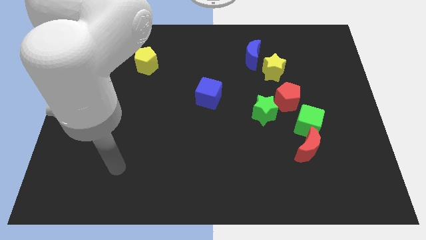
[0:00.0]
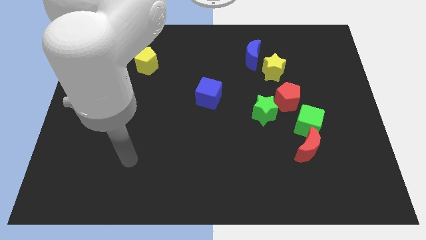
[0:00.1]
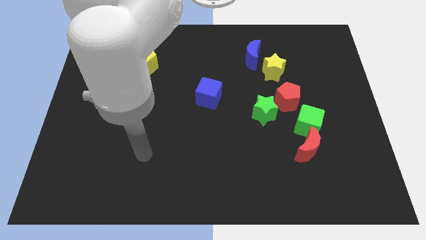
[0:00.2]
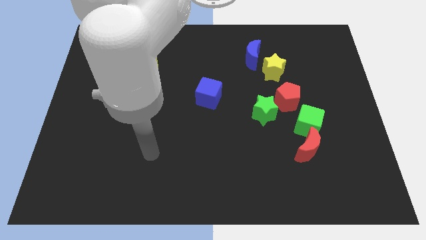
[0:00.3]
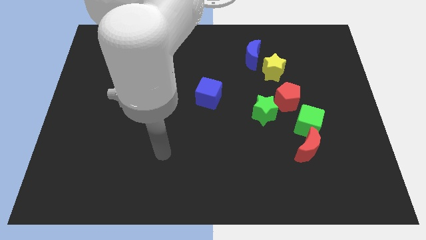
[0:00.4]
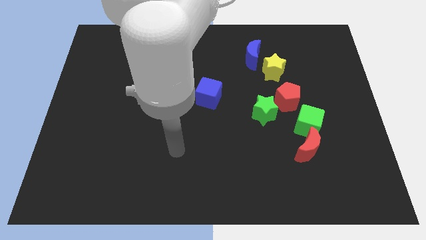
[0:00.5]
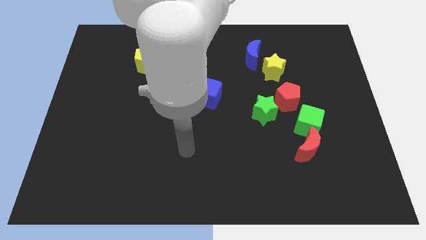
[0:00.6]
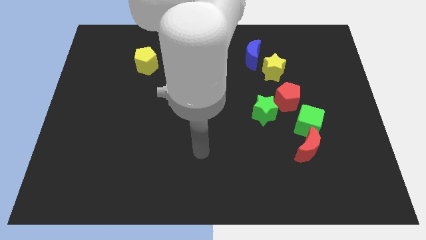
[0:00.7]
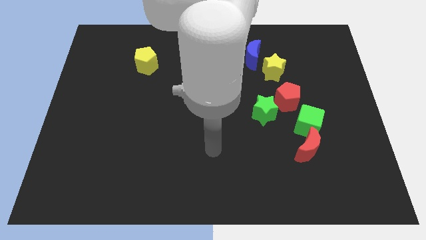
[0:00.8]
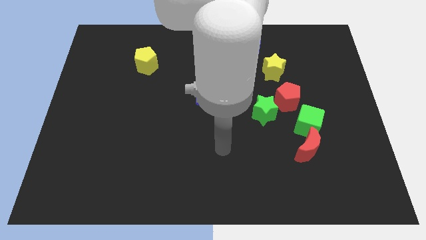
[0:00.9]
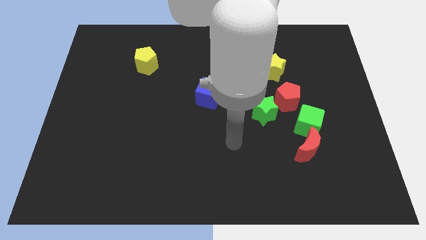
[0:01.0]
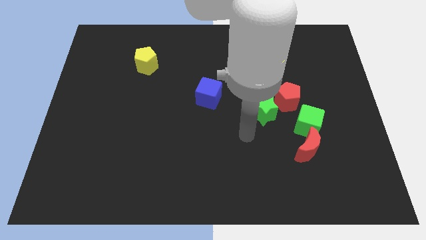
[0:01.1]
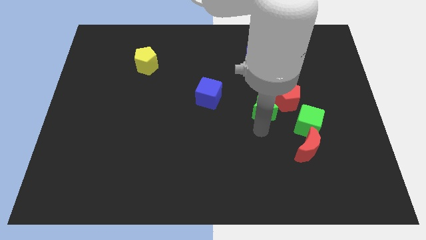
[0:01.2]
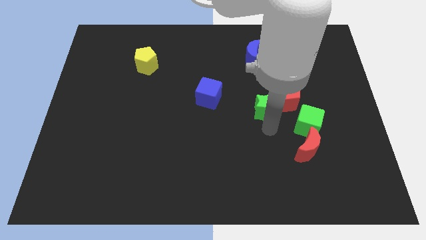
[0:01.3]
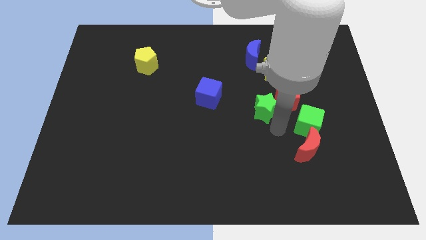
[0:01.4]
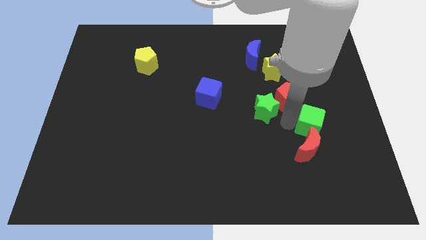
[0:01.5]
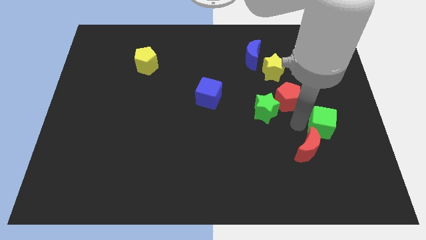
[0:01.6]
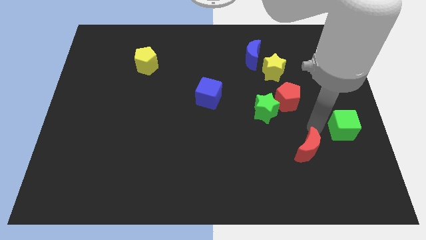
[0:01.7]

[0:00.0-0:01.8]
move the red moon away from the green cube

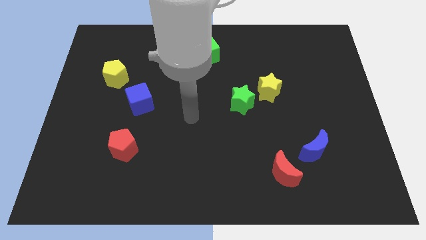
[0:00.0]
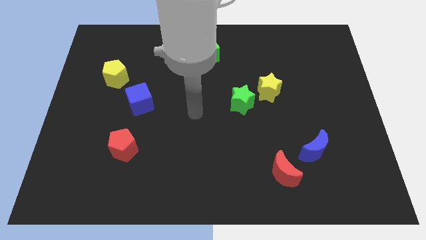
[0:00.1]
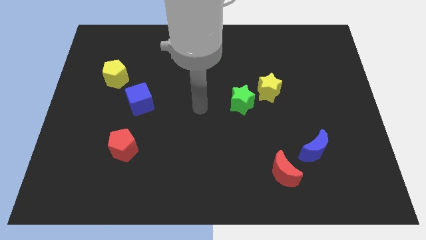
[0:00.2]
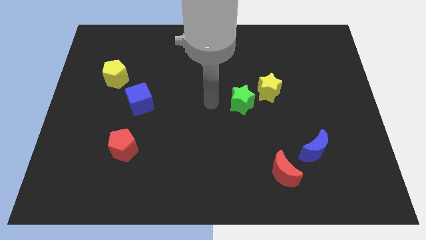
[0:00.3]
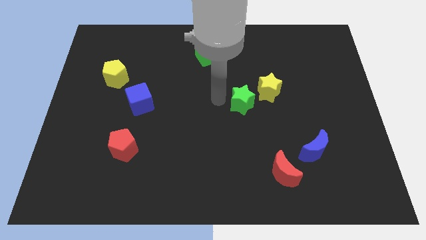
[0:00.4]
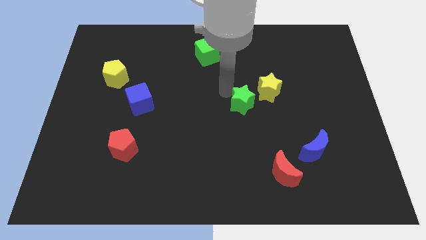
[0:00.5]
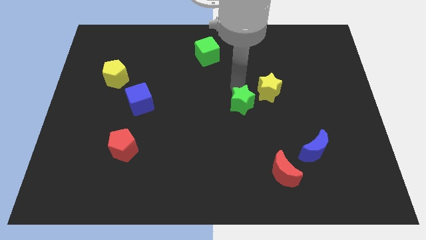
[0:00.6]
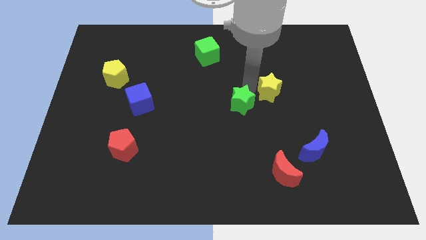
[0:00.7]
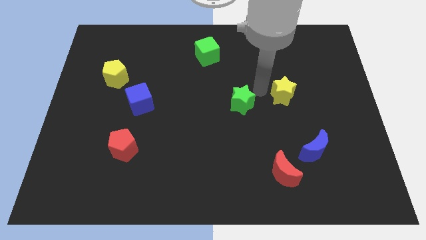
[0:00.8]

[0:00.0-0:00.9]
separate the green star from the yellow star

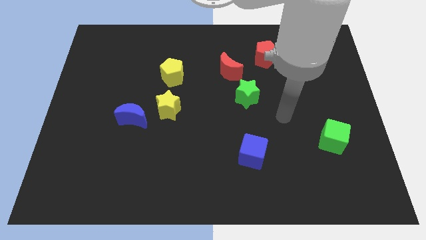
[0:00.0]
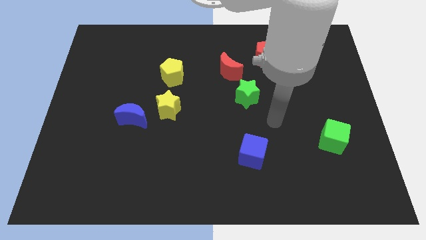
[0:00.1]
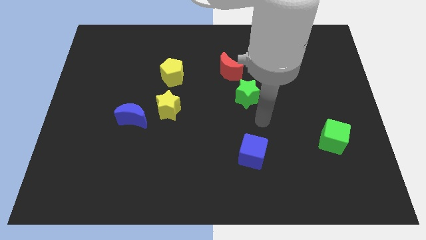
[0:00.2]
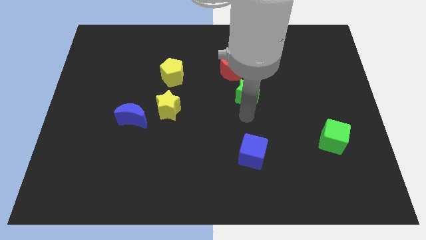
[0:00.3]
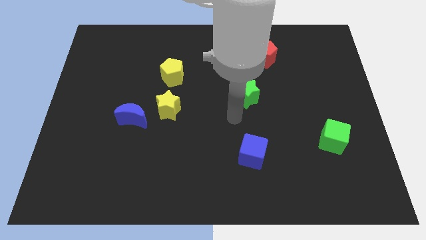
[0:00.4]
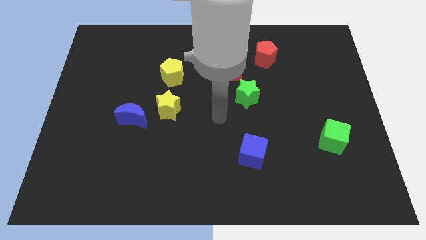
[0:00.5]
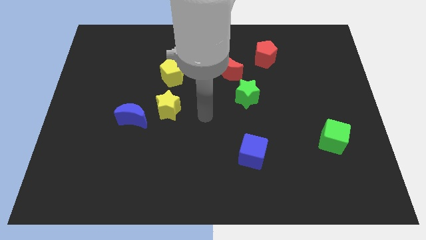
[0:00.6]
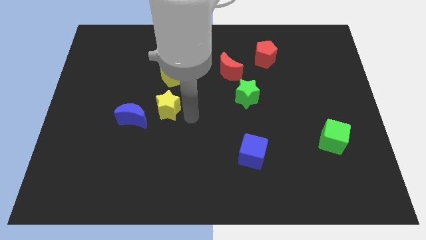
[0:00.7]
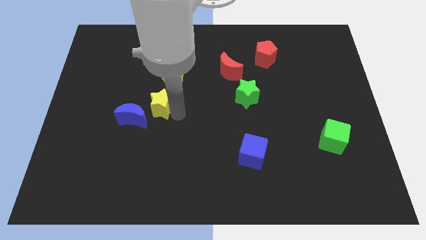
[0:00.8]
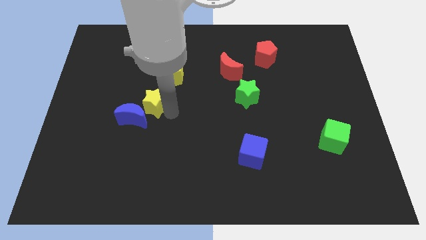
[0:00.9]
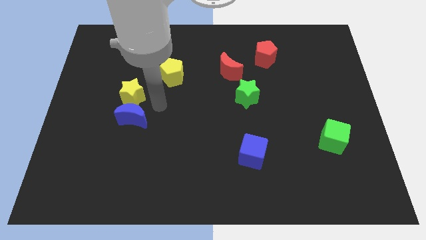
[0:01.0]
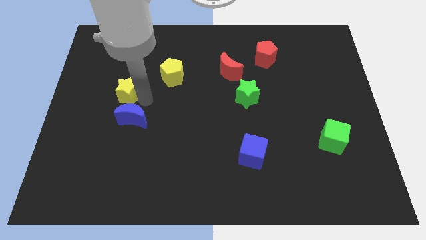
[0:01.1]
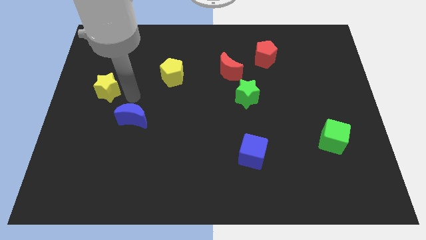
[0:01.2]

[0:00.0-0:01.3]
pull the blue moon apart from the yellow star

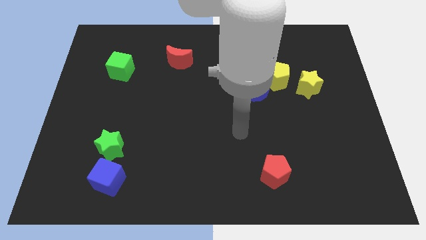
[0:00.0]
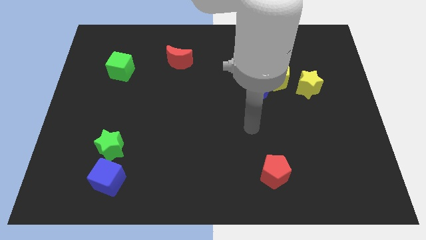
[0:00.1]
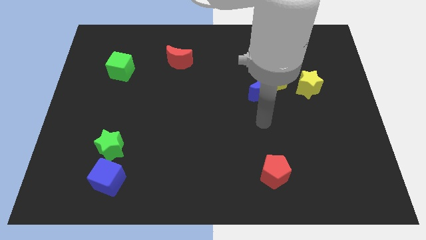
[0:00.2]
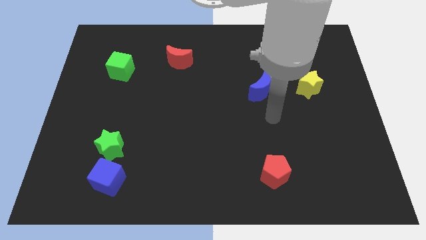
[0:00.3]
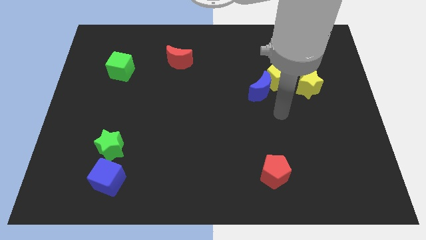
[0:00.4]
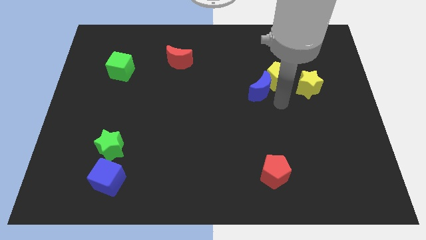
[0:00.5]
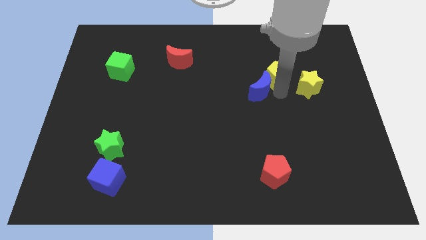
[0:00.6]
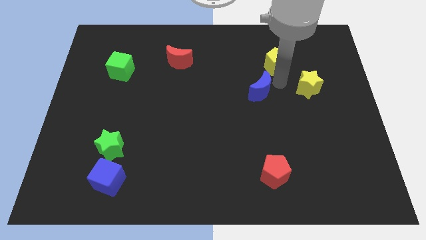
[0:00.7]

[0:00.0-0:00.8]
move the blue moon away from the yellow pentagon

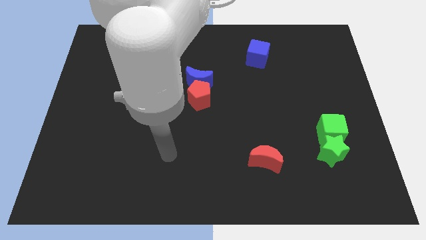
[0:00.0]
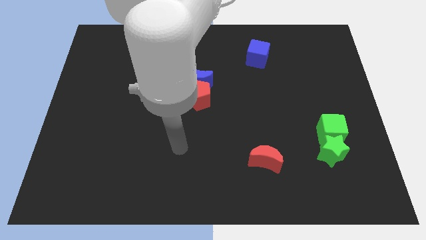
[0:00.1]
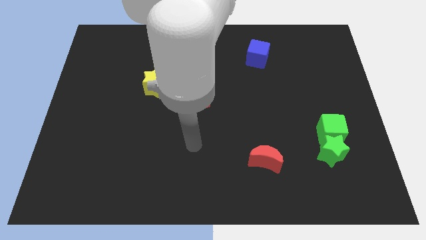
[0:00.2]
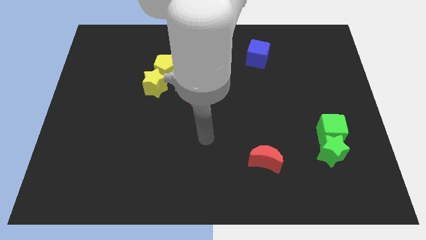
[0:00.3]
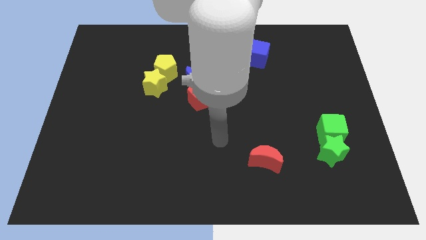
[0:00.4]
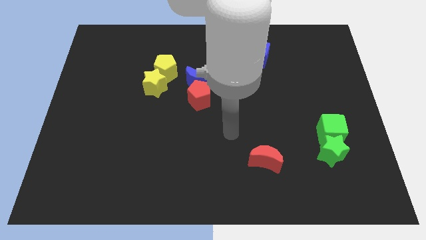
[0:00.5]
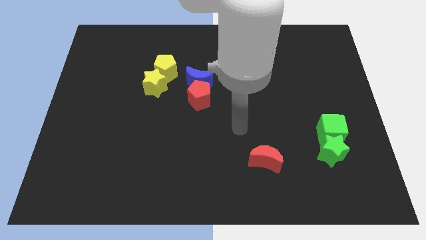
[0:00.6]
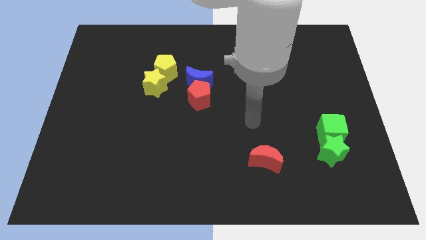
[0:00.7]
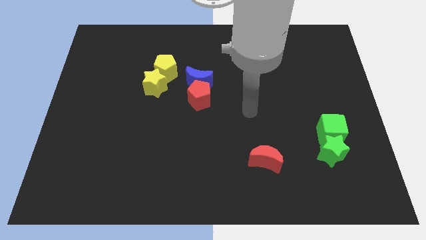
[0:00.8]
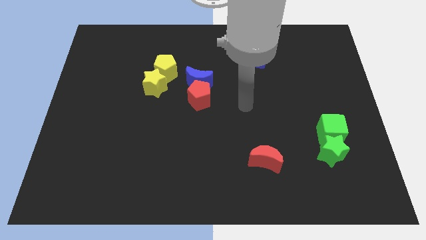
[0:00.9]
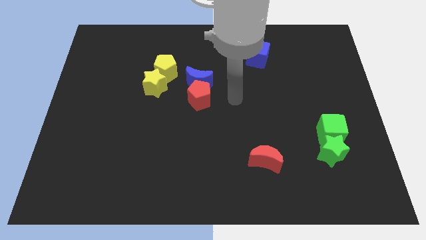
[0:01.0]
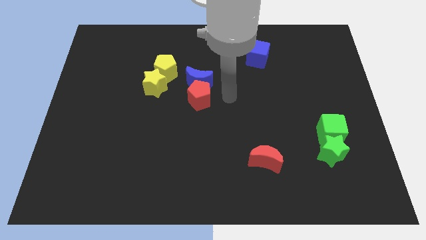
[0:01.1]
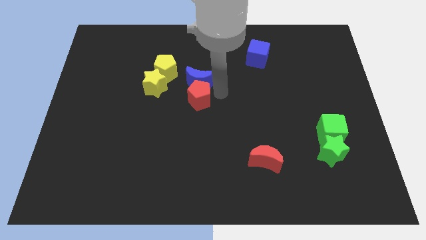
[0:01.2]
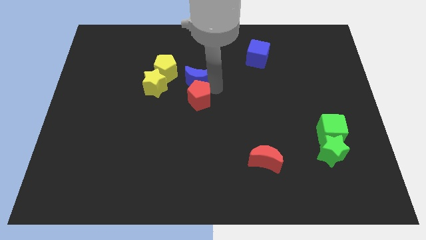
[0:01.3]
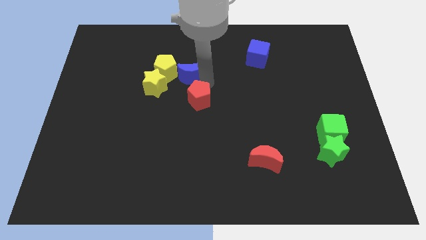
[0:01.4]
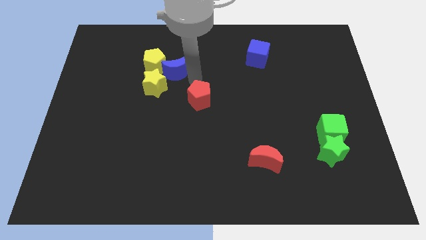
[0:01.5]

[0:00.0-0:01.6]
separate the red pentagon from the blue moon

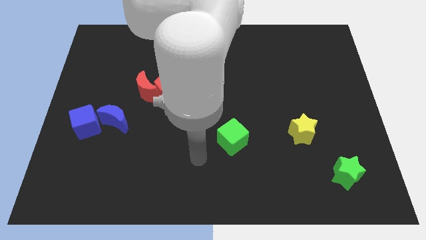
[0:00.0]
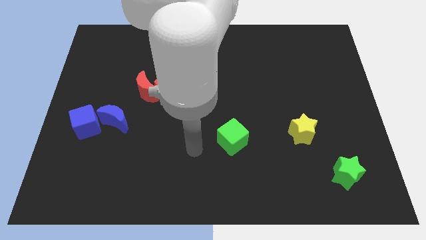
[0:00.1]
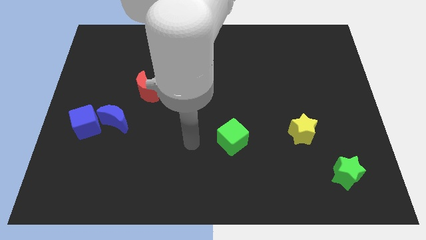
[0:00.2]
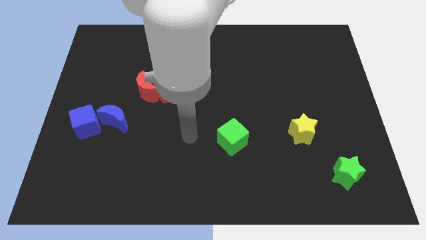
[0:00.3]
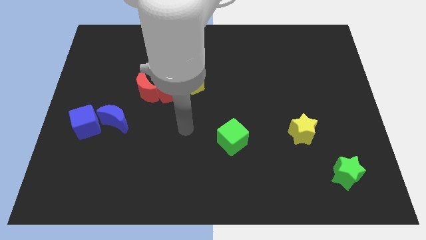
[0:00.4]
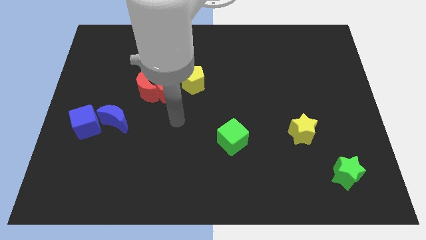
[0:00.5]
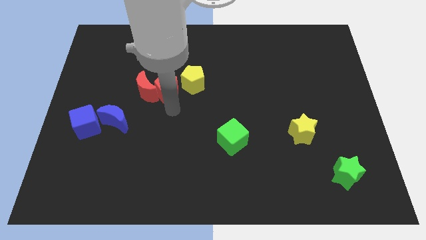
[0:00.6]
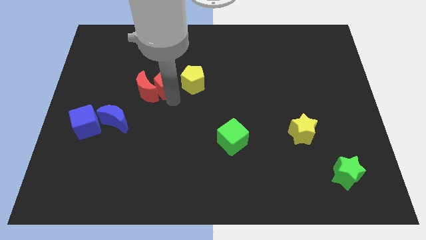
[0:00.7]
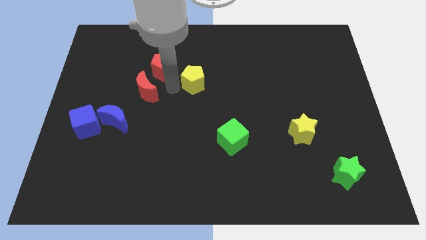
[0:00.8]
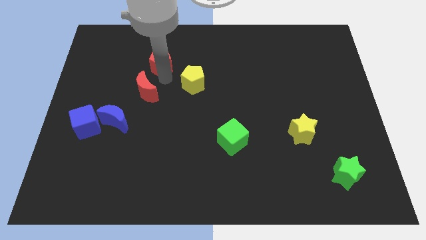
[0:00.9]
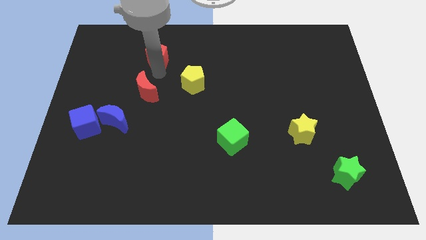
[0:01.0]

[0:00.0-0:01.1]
pull the red moon apart from the red pentagon

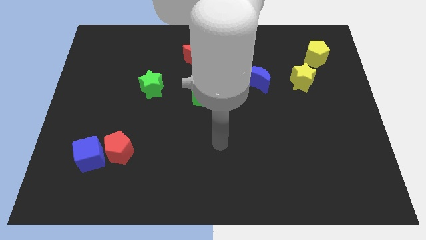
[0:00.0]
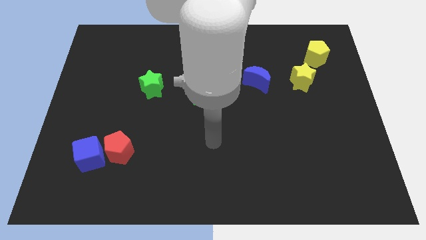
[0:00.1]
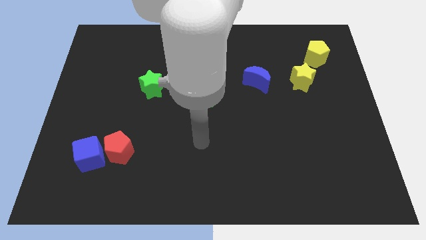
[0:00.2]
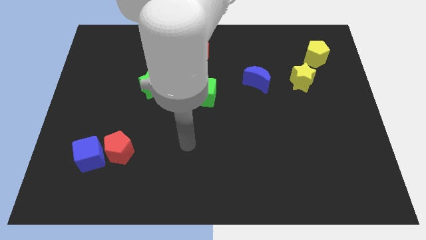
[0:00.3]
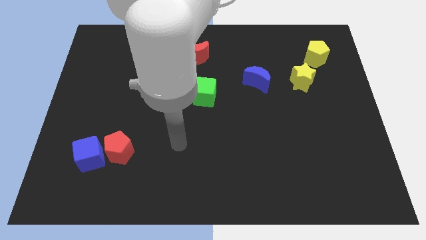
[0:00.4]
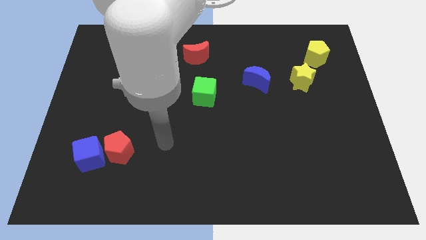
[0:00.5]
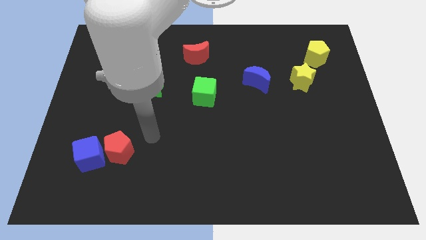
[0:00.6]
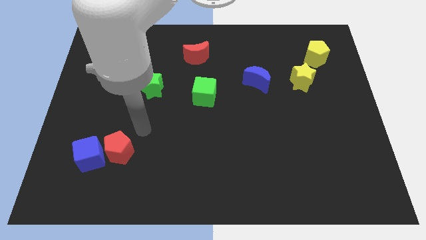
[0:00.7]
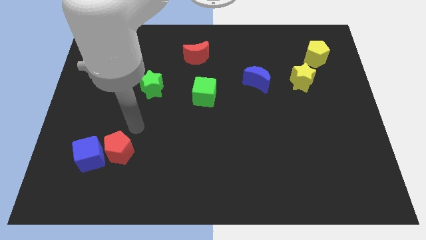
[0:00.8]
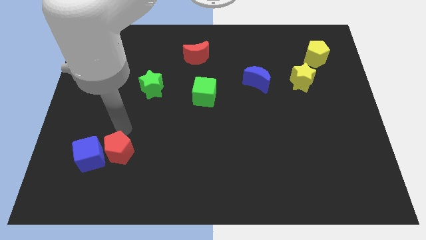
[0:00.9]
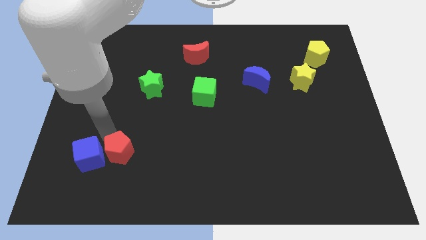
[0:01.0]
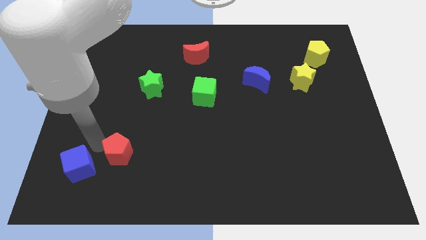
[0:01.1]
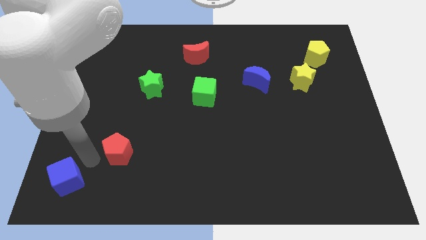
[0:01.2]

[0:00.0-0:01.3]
move the red pentagon away from the blue cube

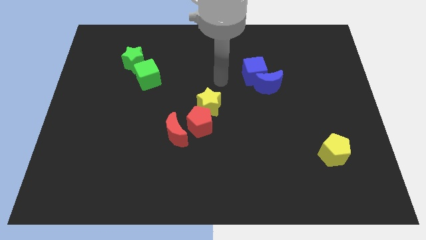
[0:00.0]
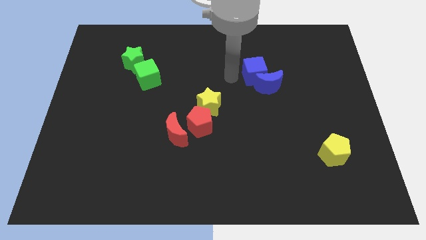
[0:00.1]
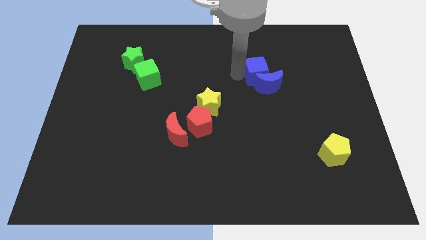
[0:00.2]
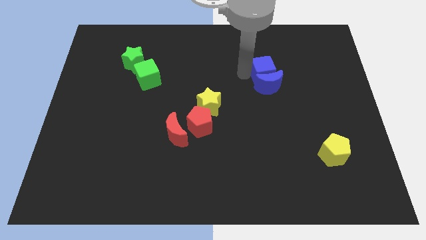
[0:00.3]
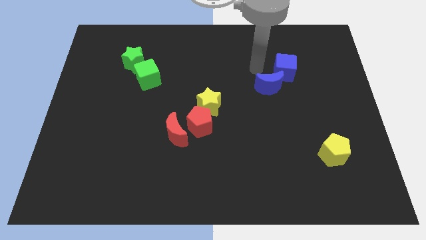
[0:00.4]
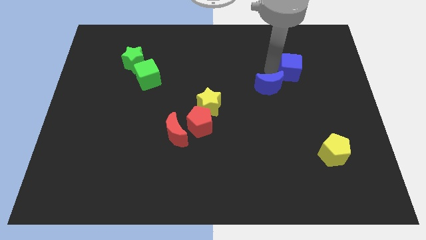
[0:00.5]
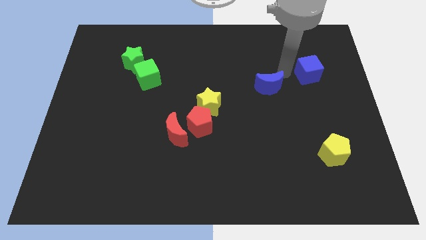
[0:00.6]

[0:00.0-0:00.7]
move the blue moon away from the blue cube
